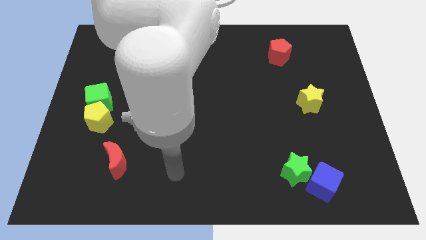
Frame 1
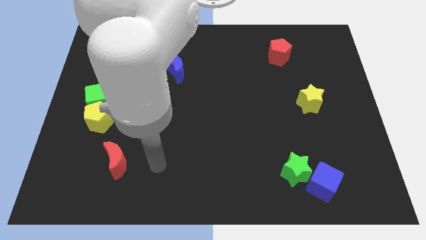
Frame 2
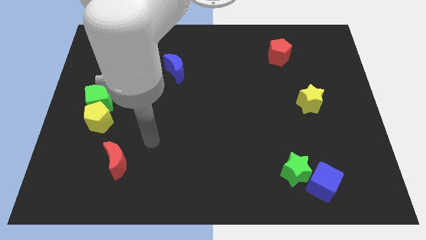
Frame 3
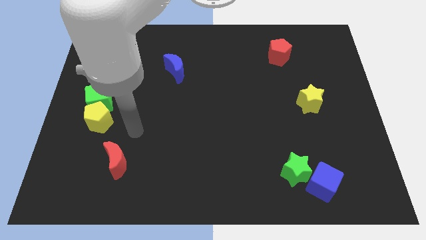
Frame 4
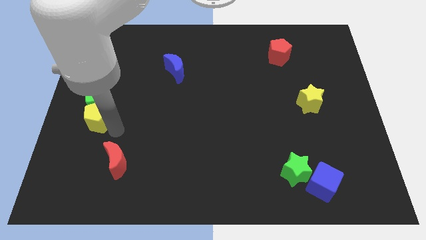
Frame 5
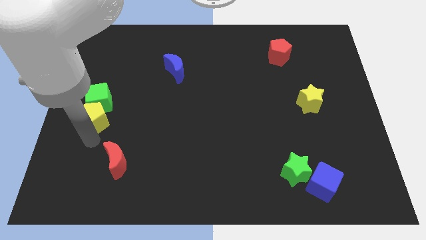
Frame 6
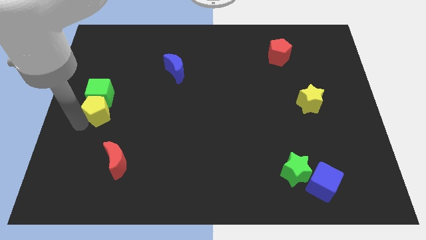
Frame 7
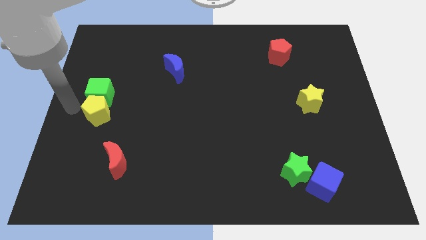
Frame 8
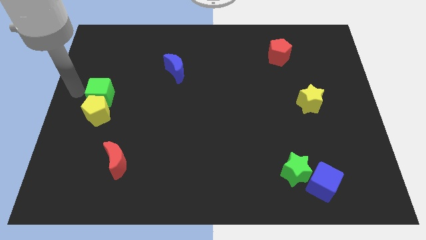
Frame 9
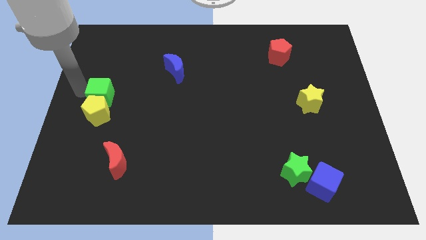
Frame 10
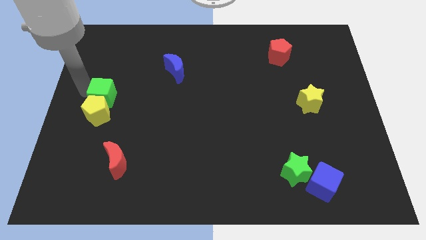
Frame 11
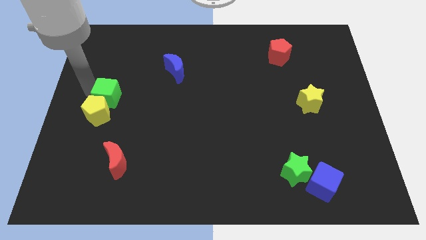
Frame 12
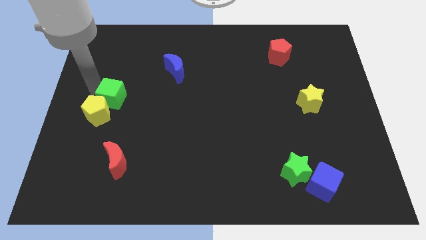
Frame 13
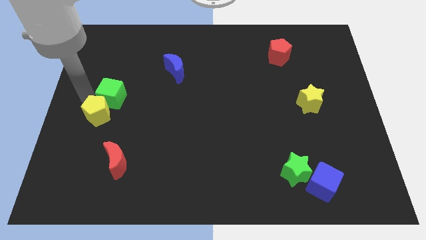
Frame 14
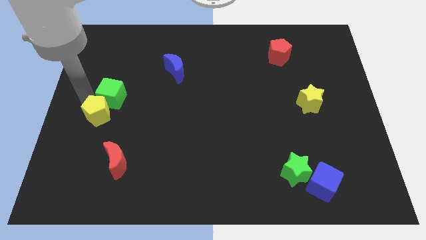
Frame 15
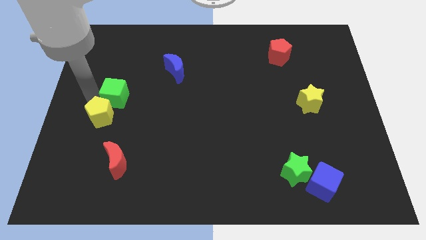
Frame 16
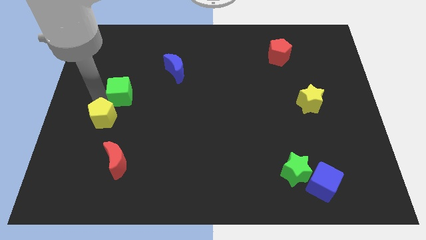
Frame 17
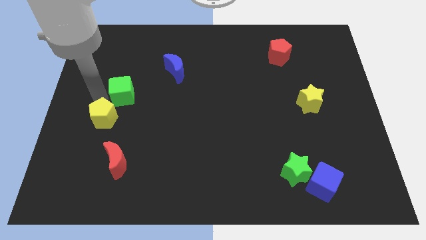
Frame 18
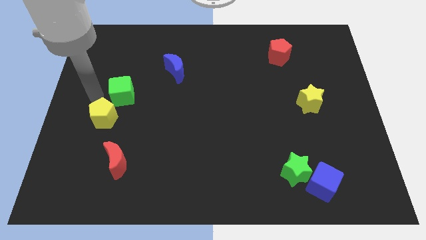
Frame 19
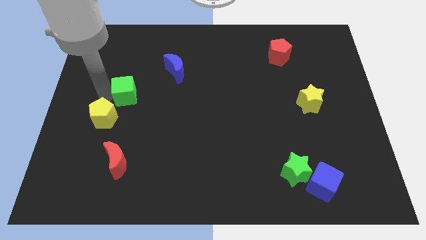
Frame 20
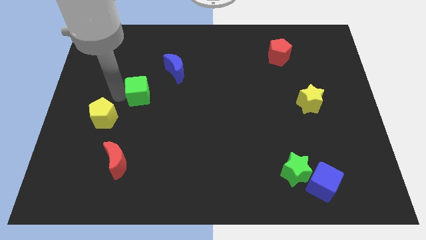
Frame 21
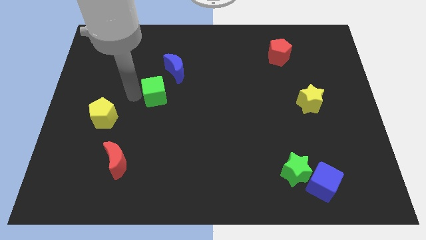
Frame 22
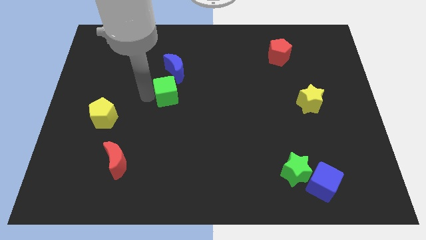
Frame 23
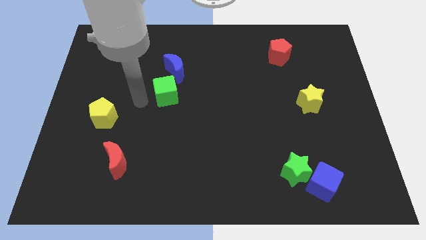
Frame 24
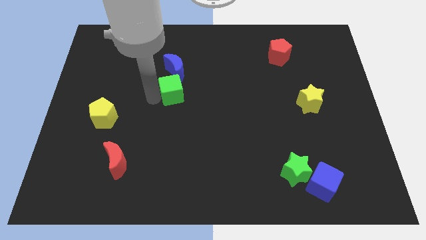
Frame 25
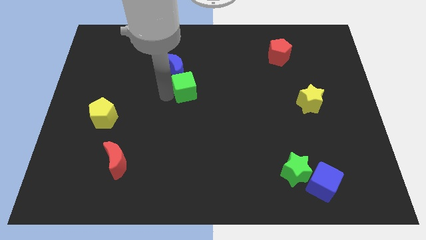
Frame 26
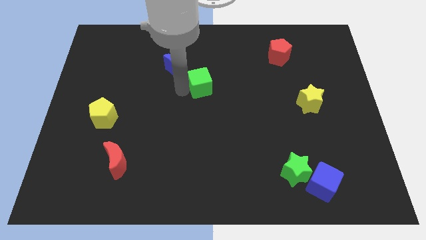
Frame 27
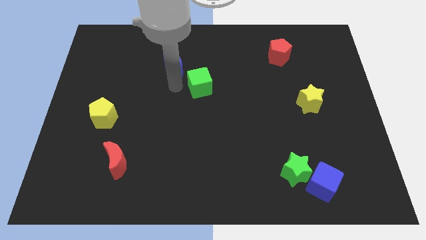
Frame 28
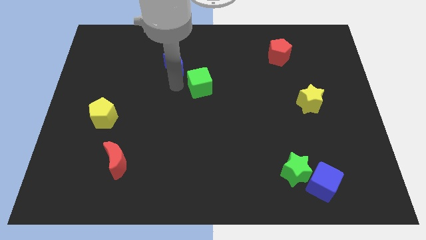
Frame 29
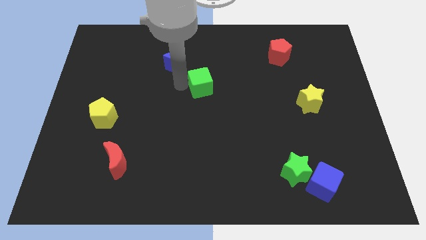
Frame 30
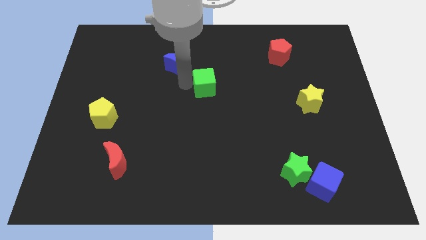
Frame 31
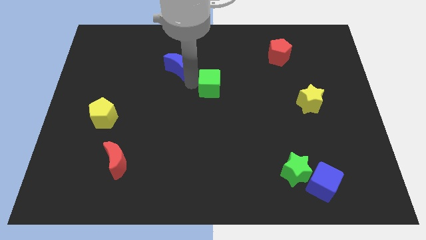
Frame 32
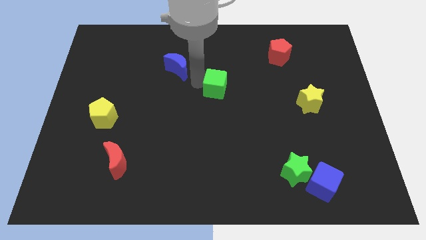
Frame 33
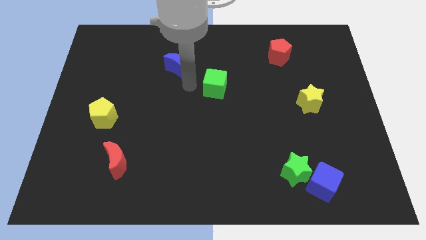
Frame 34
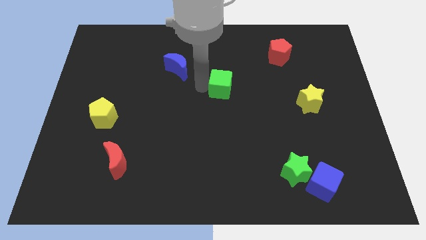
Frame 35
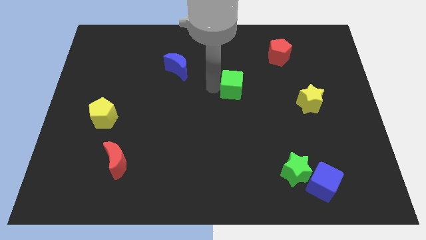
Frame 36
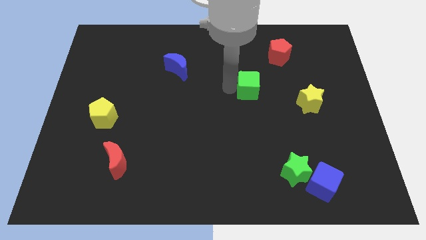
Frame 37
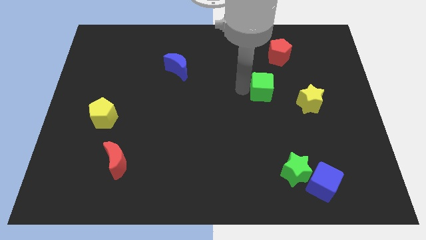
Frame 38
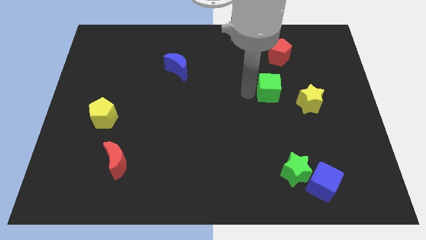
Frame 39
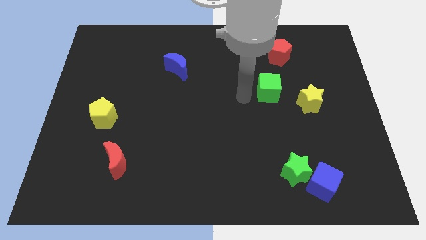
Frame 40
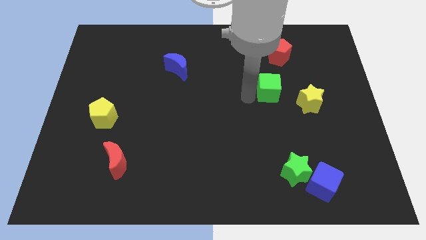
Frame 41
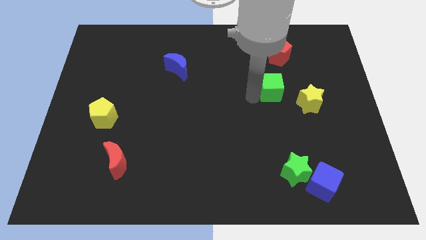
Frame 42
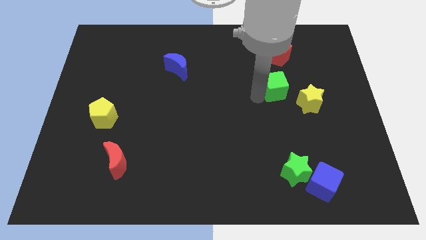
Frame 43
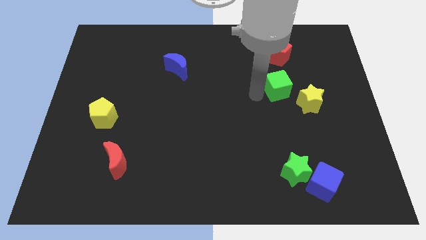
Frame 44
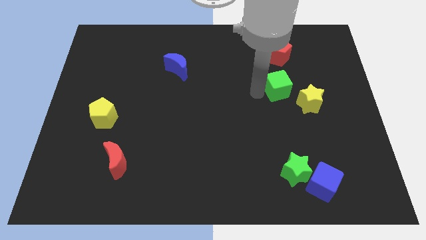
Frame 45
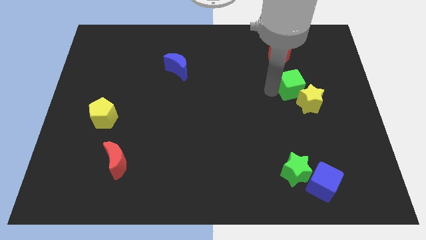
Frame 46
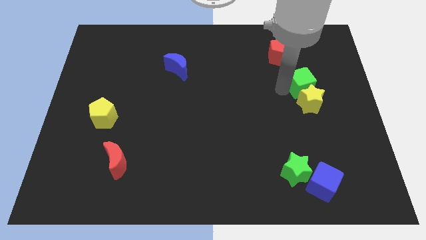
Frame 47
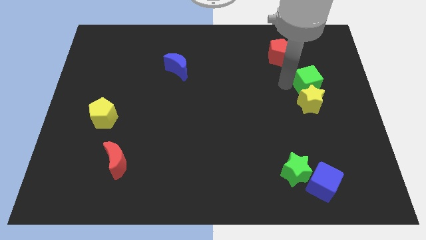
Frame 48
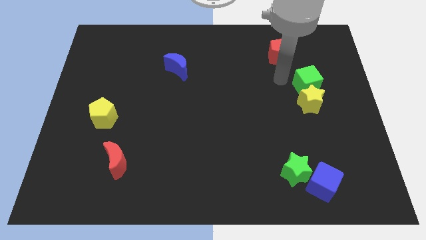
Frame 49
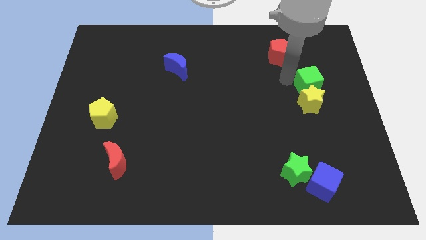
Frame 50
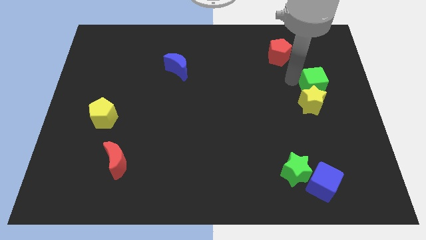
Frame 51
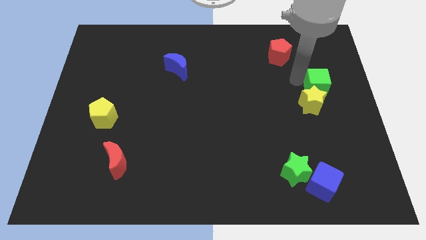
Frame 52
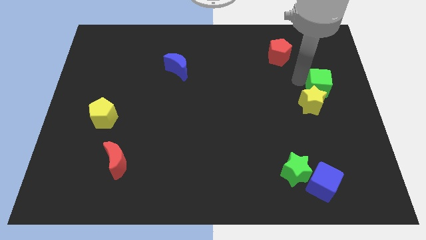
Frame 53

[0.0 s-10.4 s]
move the green cube to the right side of the board

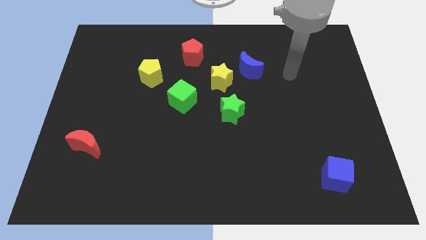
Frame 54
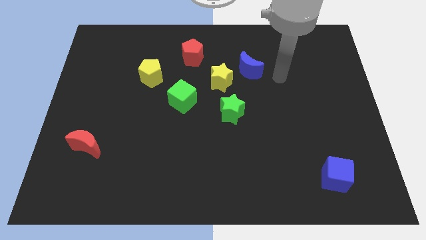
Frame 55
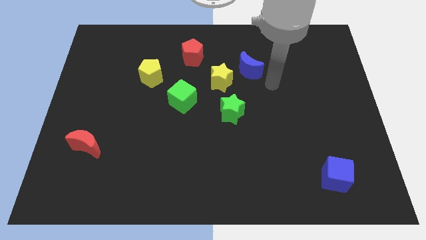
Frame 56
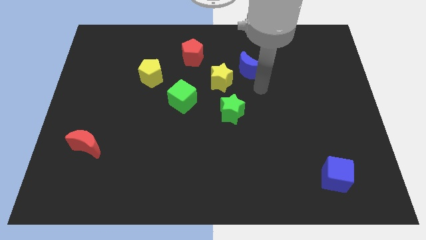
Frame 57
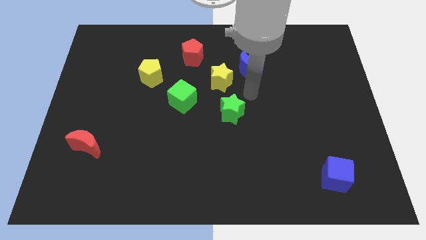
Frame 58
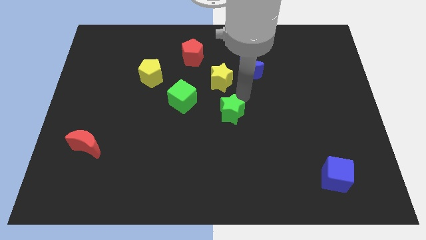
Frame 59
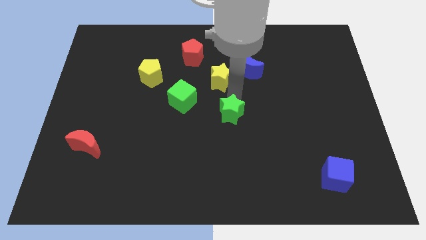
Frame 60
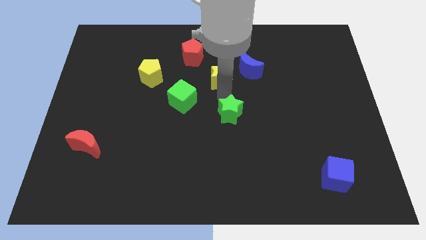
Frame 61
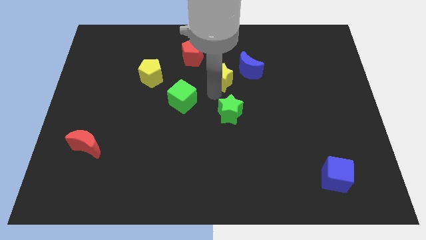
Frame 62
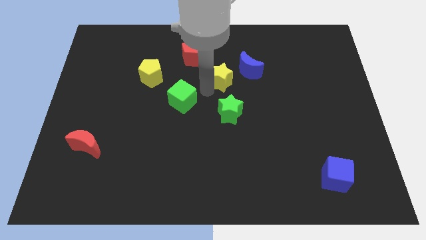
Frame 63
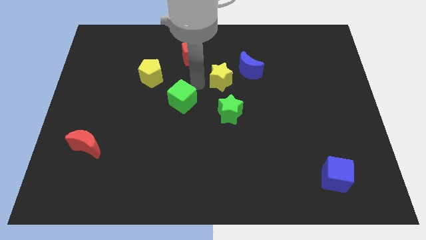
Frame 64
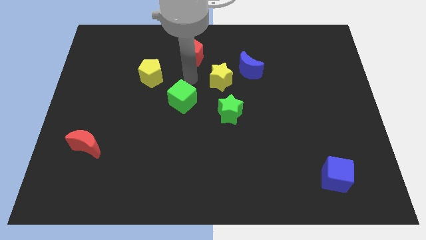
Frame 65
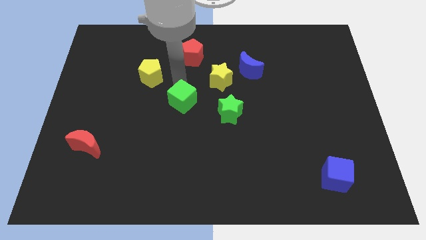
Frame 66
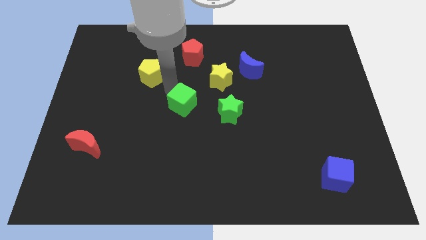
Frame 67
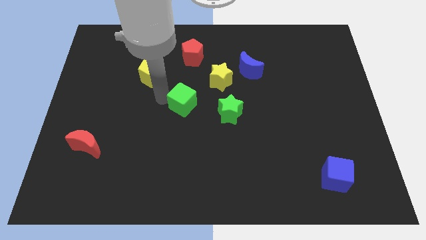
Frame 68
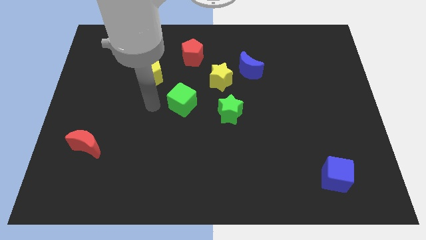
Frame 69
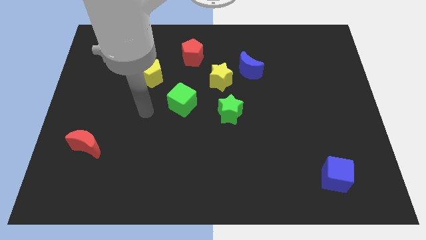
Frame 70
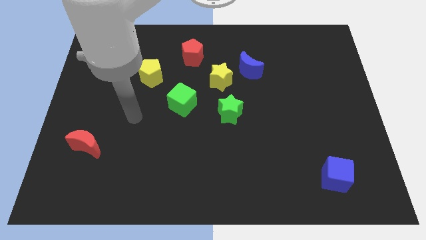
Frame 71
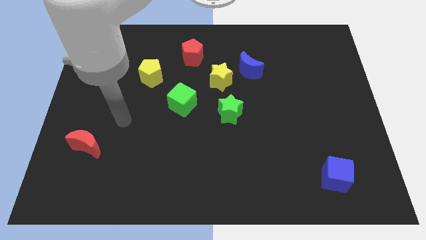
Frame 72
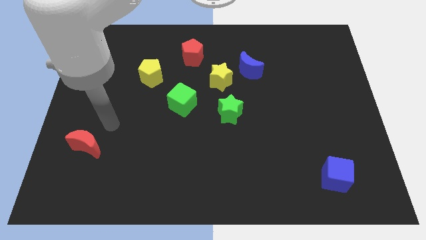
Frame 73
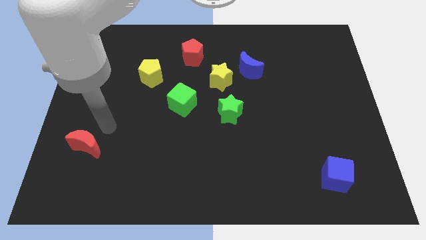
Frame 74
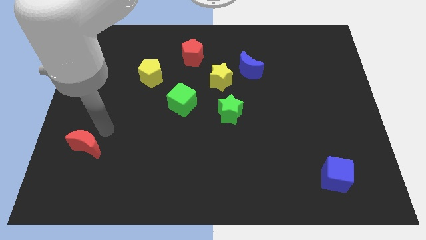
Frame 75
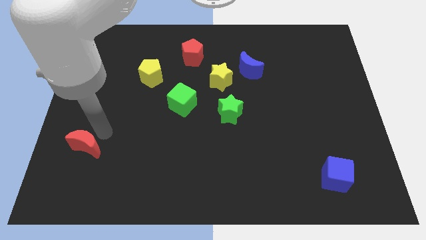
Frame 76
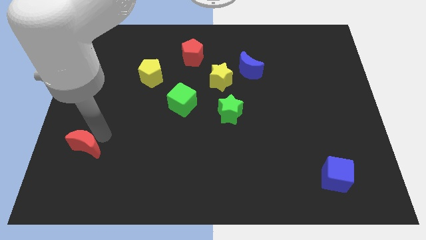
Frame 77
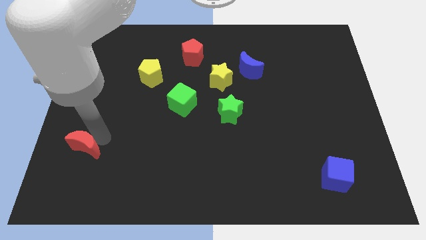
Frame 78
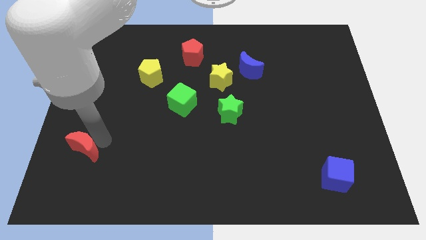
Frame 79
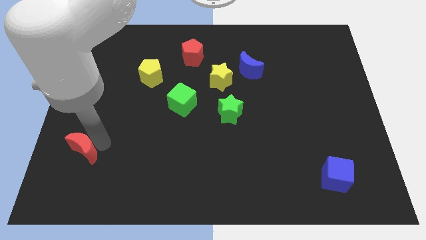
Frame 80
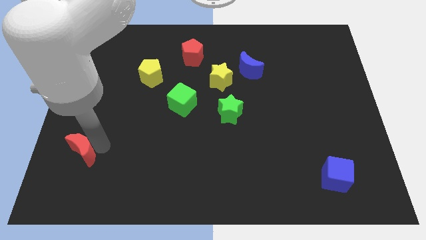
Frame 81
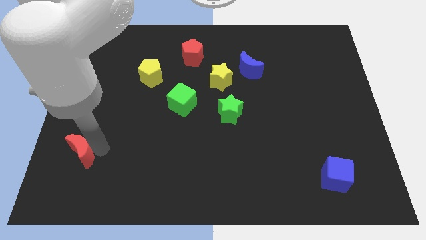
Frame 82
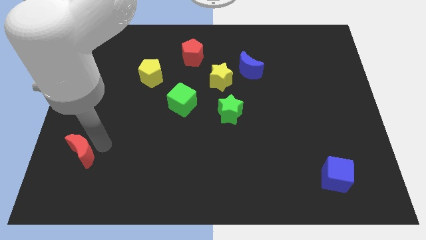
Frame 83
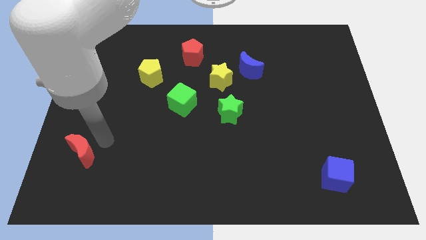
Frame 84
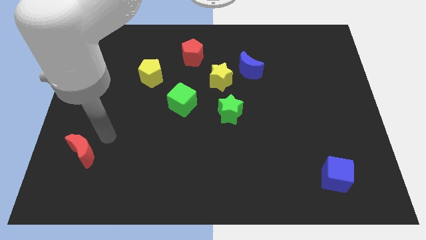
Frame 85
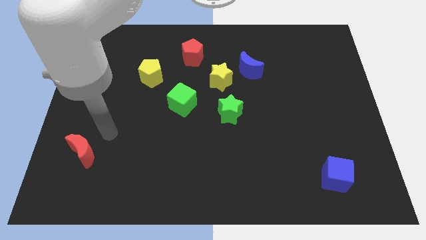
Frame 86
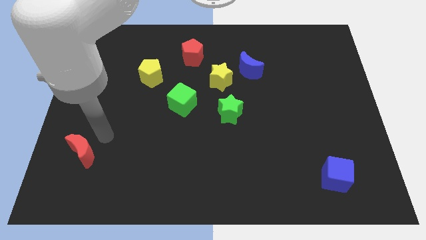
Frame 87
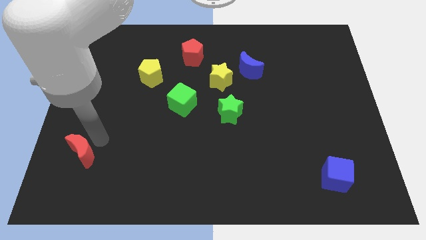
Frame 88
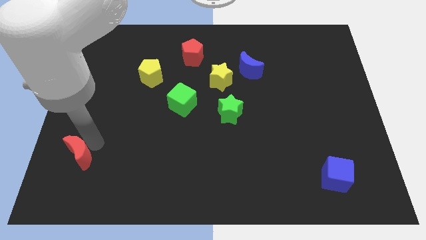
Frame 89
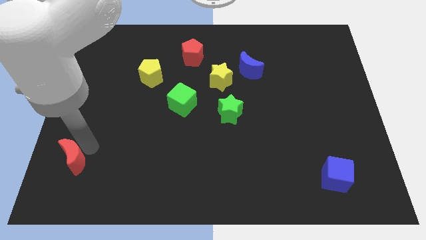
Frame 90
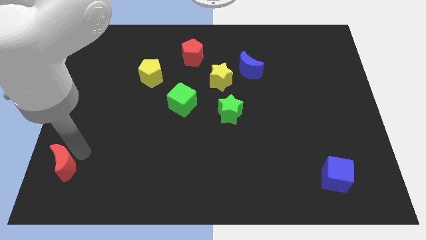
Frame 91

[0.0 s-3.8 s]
put the red moon to the bottom left corner
